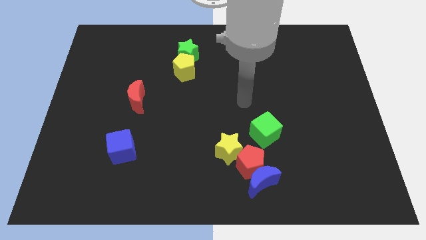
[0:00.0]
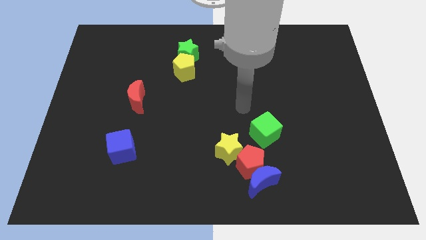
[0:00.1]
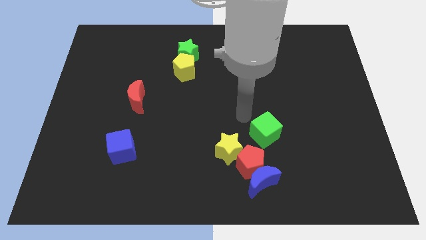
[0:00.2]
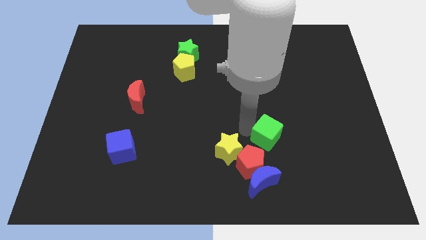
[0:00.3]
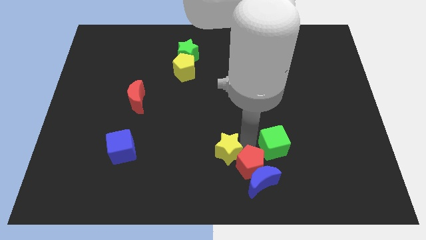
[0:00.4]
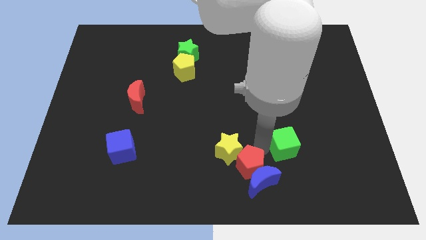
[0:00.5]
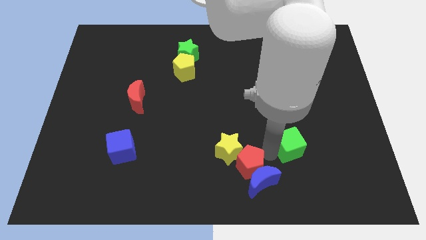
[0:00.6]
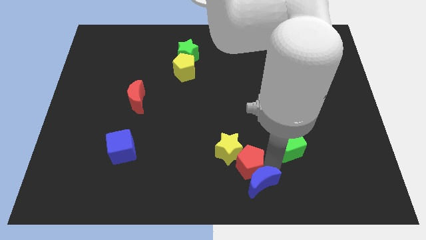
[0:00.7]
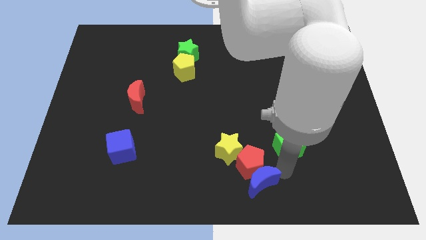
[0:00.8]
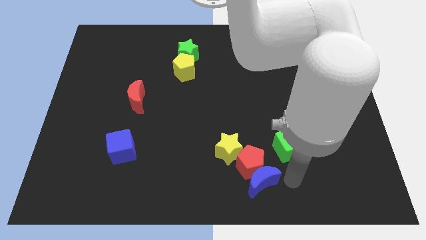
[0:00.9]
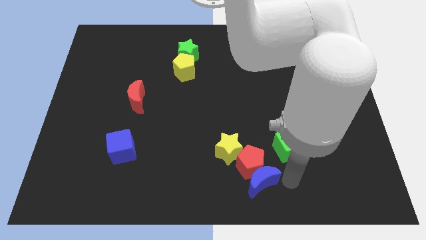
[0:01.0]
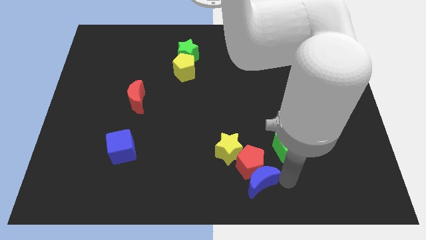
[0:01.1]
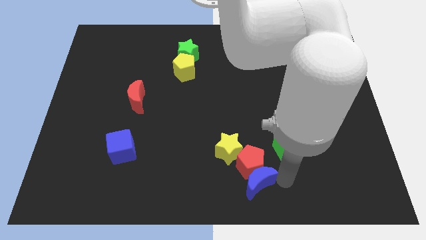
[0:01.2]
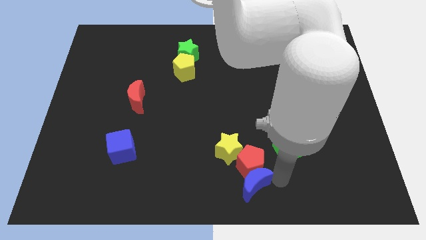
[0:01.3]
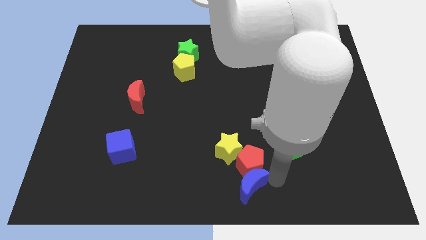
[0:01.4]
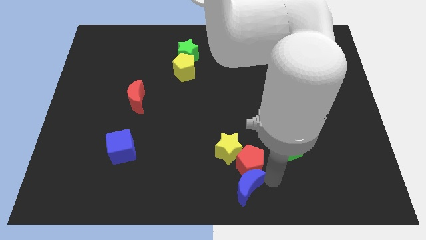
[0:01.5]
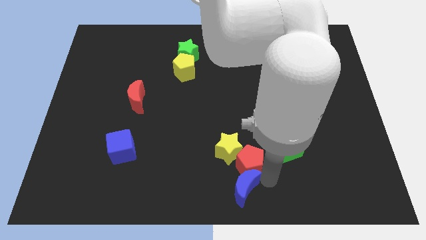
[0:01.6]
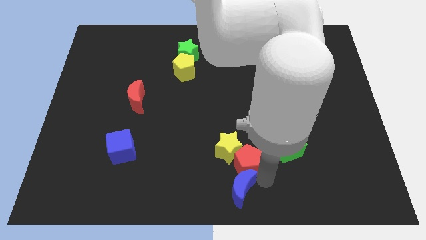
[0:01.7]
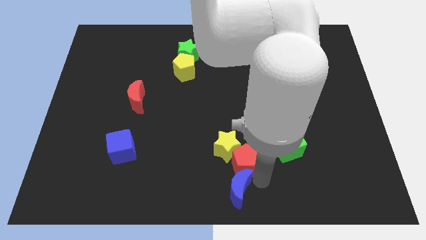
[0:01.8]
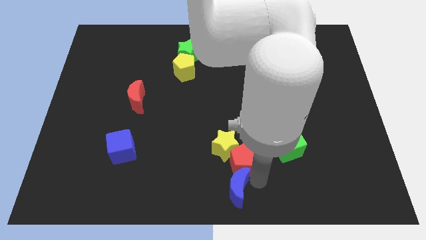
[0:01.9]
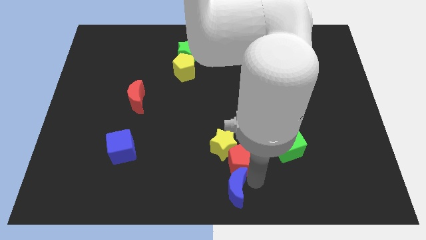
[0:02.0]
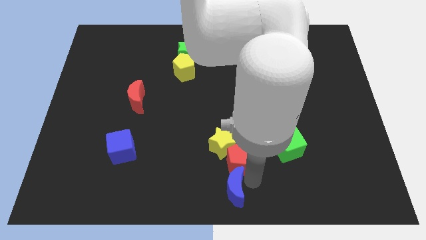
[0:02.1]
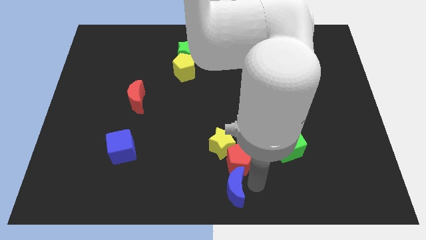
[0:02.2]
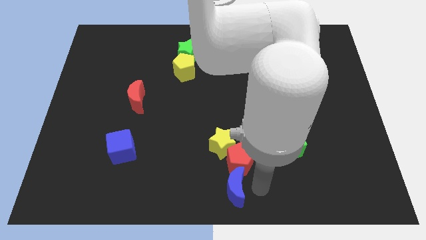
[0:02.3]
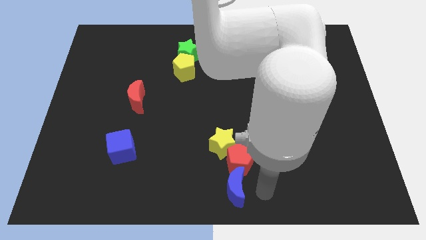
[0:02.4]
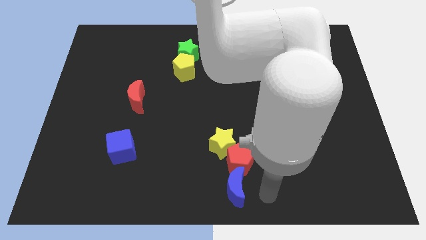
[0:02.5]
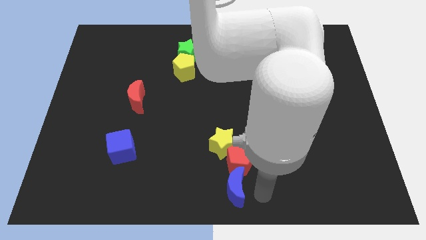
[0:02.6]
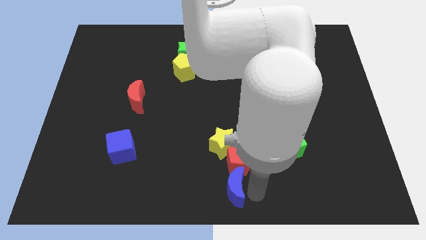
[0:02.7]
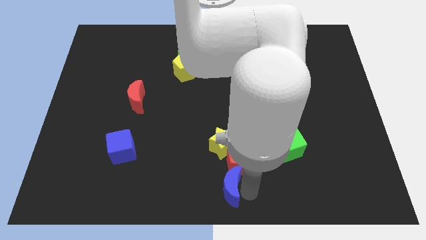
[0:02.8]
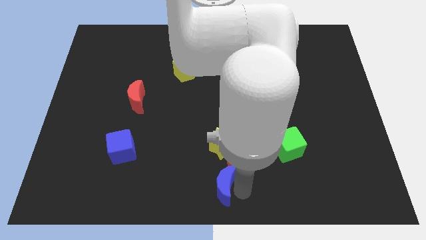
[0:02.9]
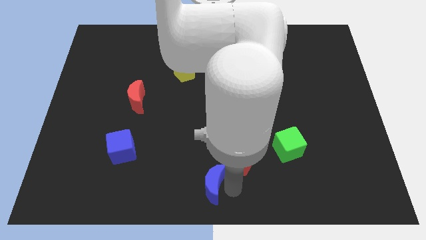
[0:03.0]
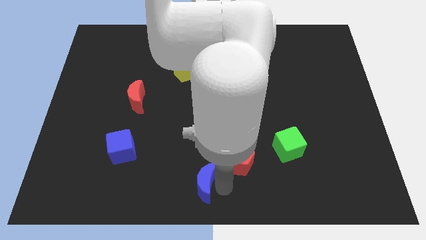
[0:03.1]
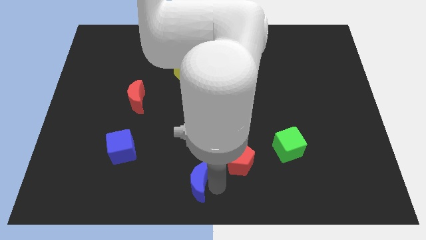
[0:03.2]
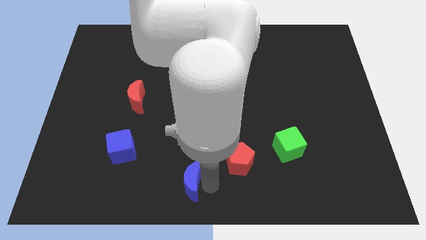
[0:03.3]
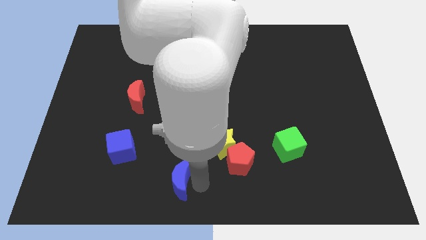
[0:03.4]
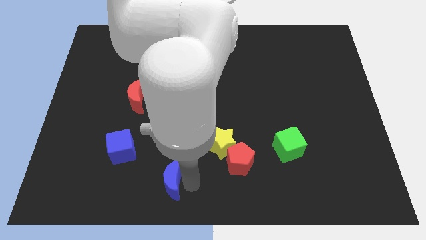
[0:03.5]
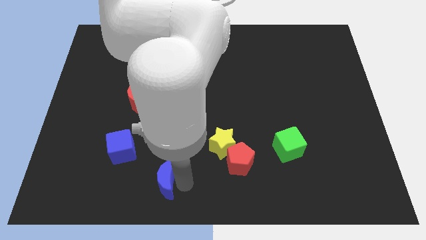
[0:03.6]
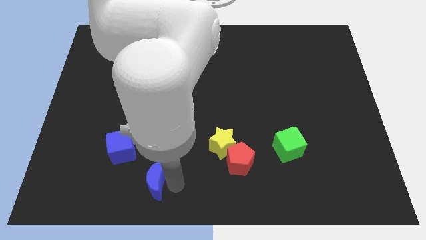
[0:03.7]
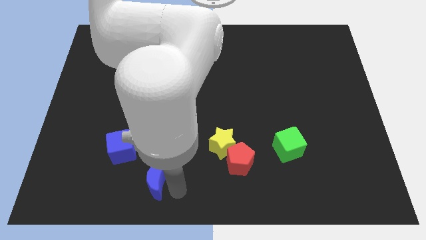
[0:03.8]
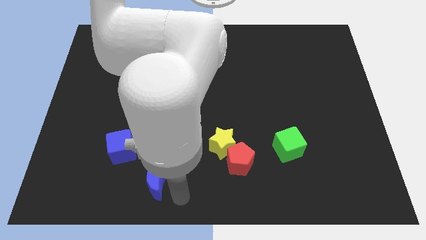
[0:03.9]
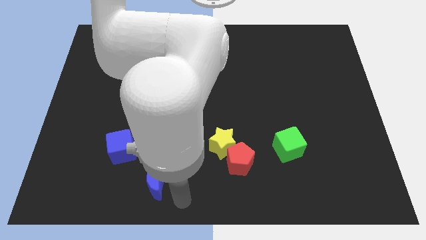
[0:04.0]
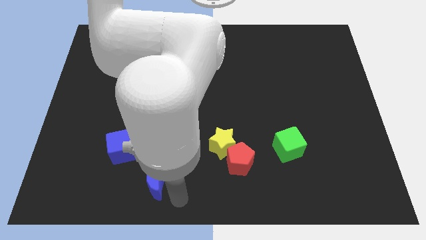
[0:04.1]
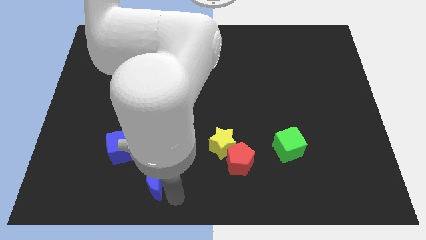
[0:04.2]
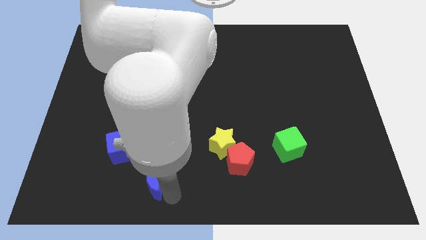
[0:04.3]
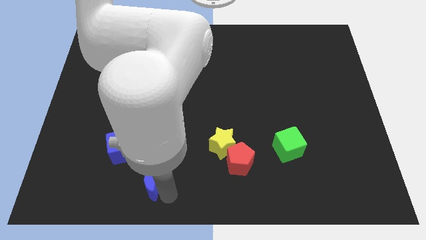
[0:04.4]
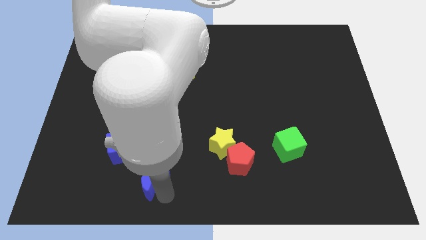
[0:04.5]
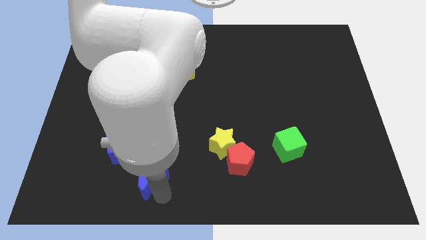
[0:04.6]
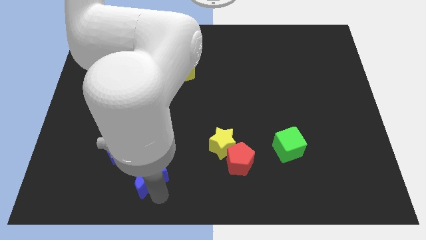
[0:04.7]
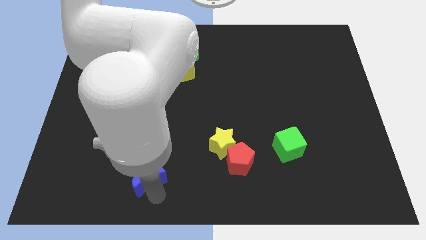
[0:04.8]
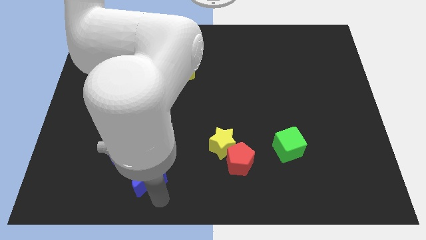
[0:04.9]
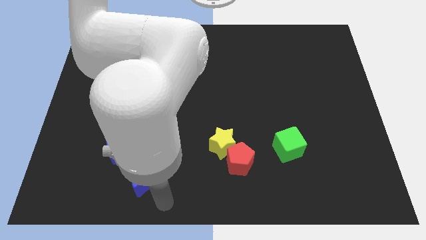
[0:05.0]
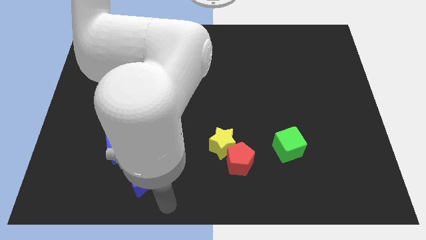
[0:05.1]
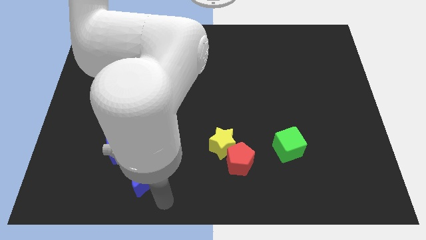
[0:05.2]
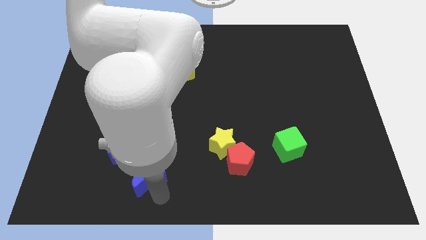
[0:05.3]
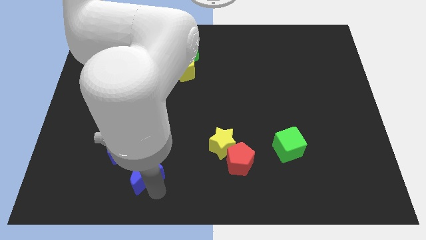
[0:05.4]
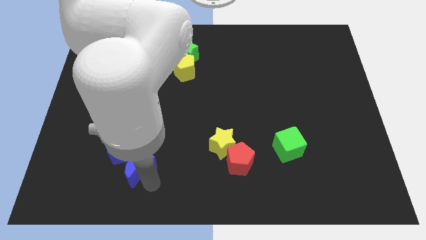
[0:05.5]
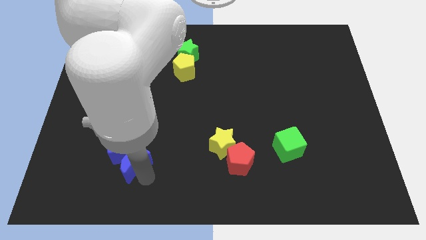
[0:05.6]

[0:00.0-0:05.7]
put the blue moon towards the blue cube
